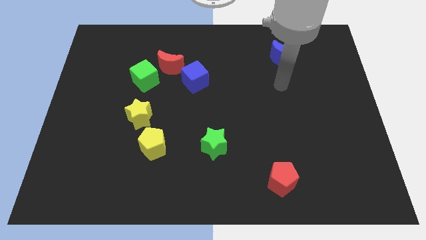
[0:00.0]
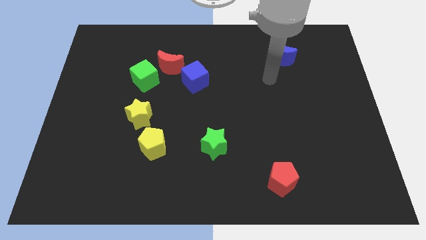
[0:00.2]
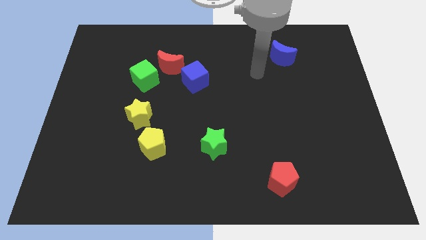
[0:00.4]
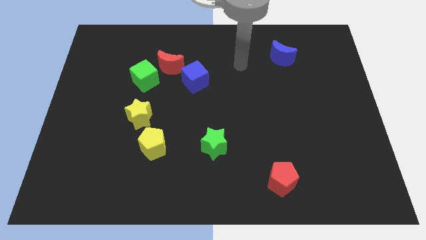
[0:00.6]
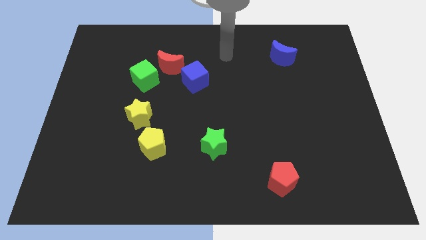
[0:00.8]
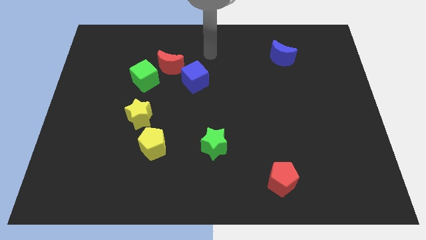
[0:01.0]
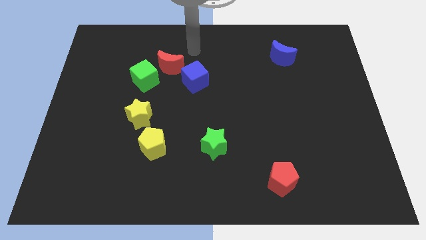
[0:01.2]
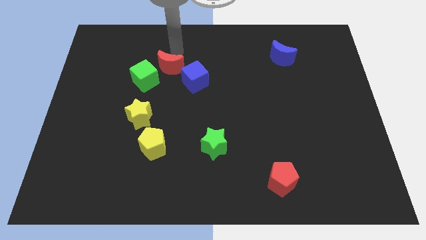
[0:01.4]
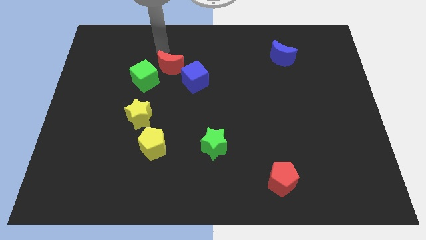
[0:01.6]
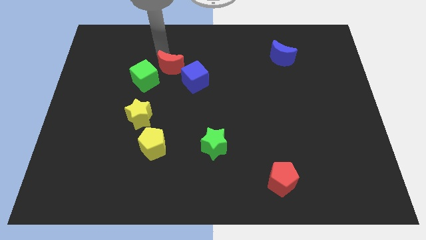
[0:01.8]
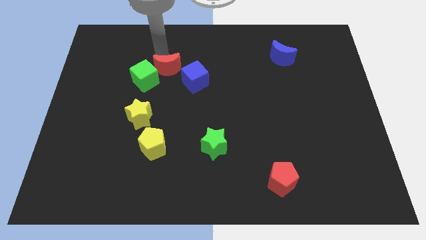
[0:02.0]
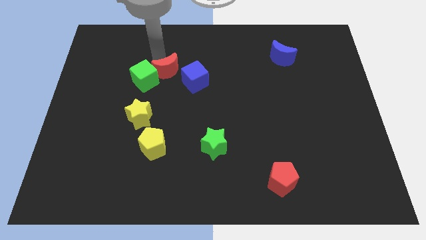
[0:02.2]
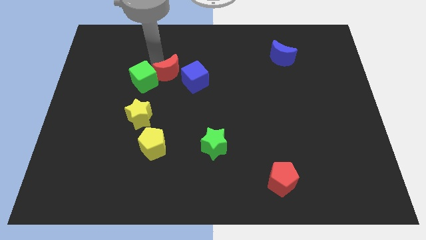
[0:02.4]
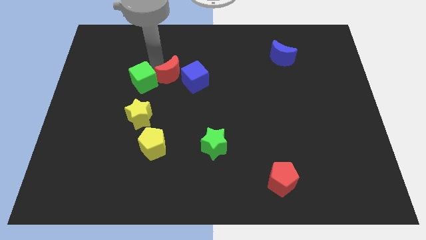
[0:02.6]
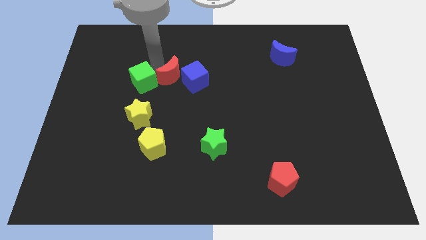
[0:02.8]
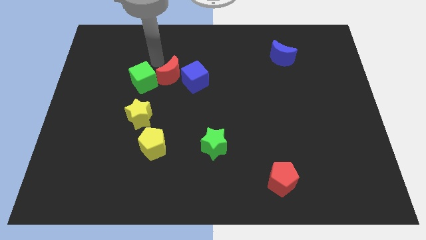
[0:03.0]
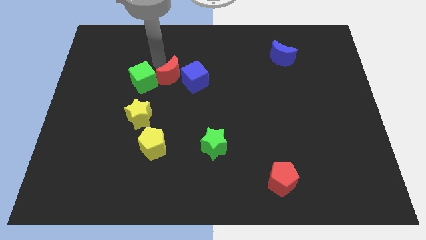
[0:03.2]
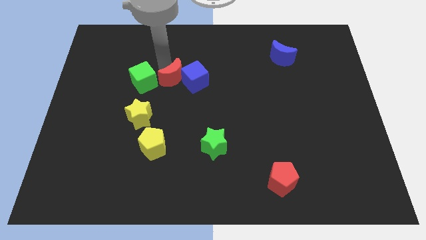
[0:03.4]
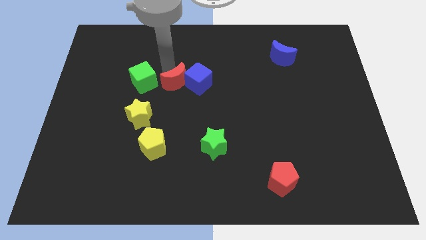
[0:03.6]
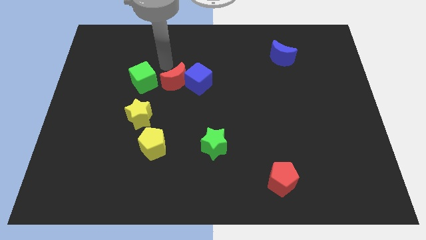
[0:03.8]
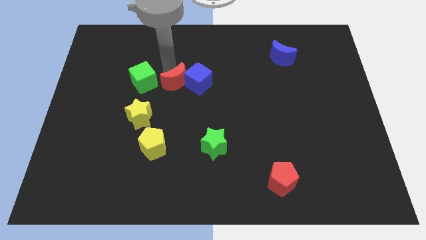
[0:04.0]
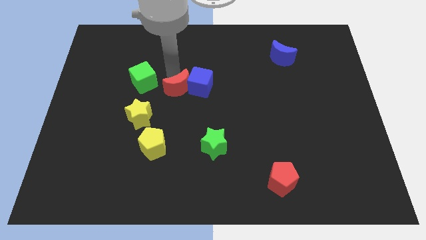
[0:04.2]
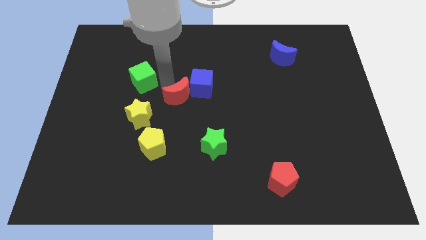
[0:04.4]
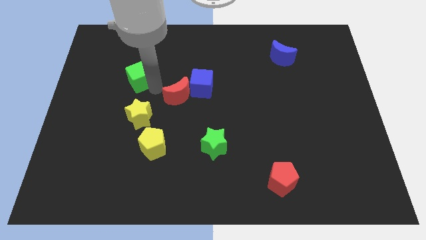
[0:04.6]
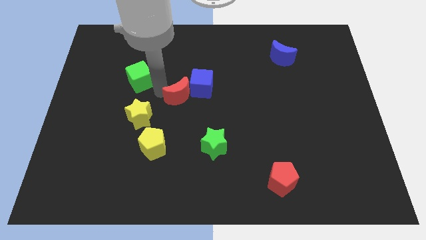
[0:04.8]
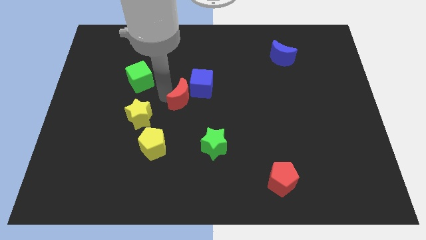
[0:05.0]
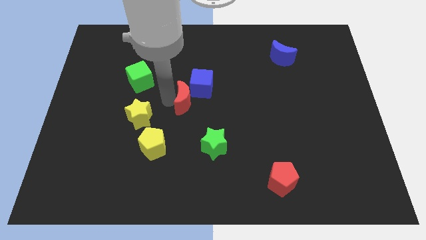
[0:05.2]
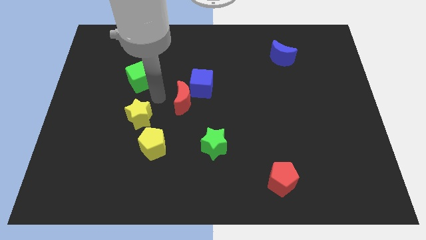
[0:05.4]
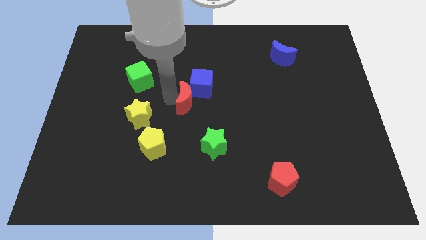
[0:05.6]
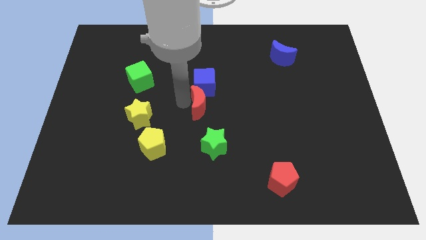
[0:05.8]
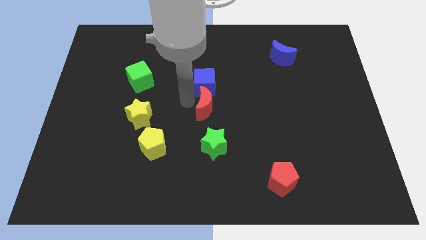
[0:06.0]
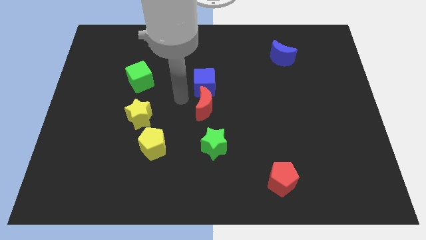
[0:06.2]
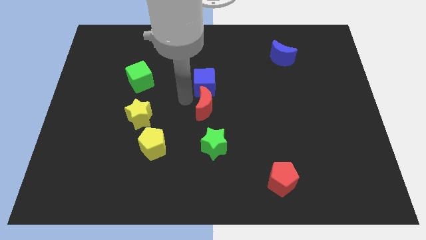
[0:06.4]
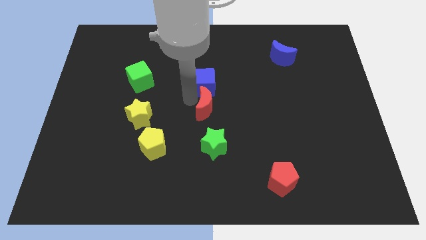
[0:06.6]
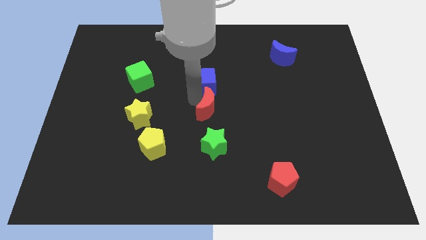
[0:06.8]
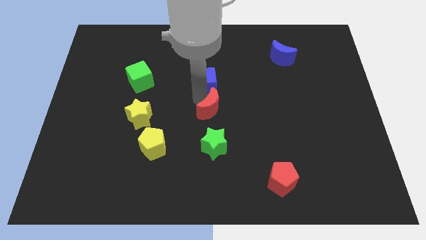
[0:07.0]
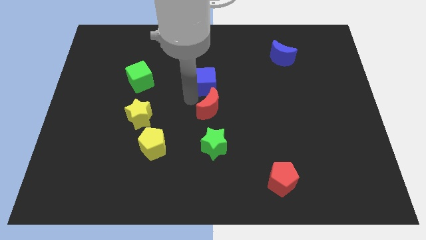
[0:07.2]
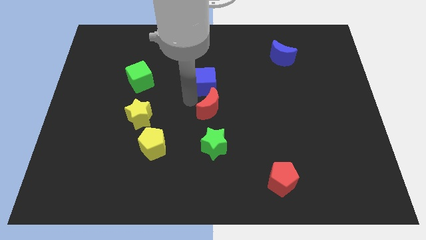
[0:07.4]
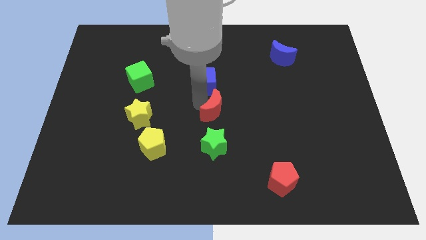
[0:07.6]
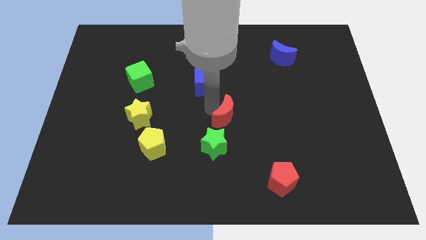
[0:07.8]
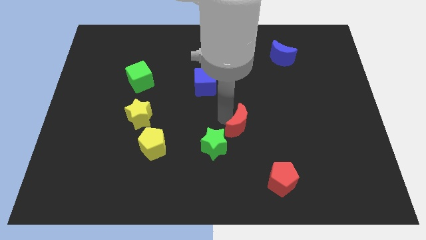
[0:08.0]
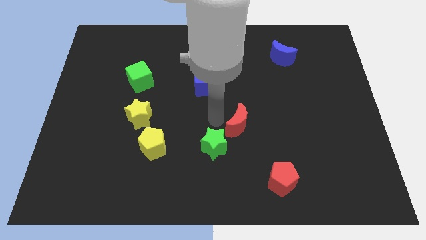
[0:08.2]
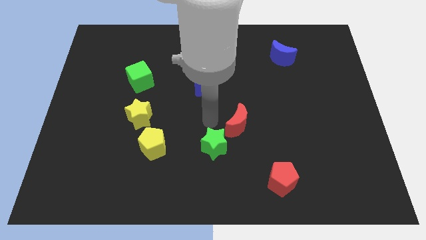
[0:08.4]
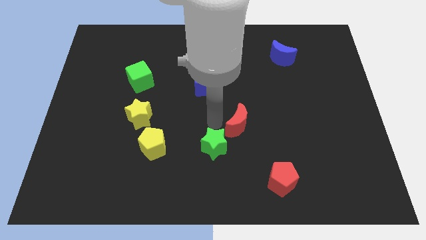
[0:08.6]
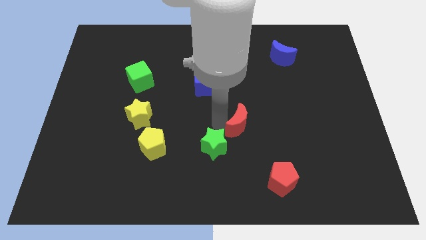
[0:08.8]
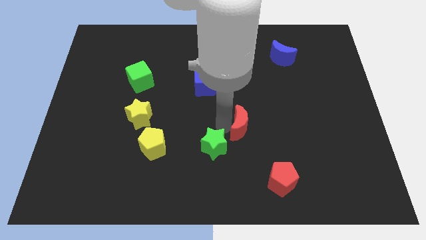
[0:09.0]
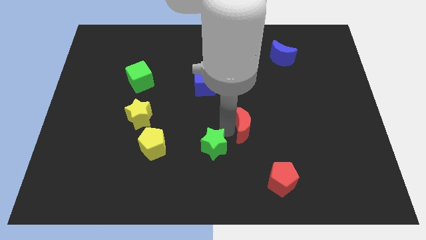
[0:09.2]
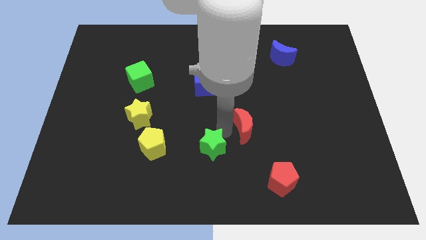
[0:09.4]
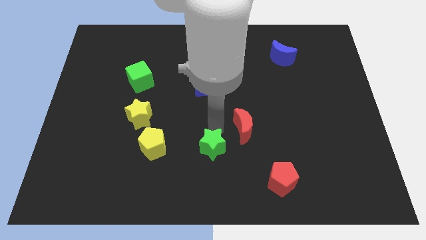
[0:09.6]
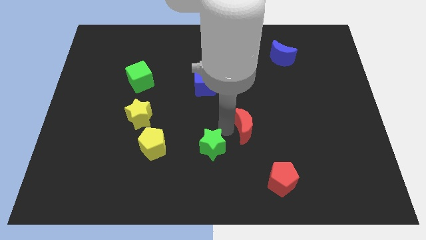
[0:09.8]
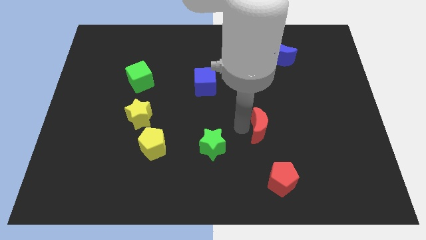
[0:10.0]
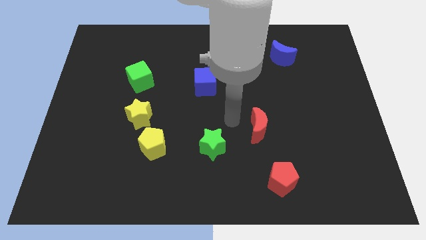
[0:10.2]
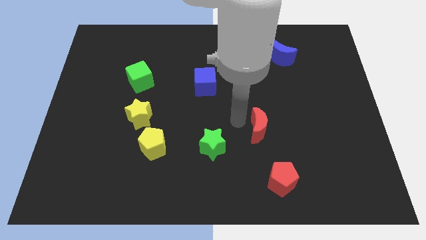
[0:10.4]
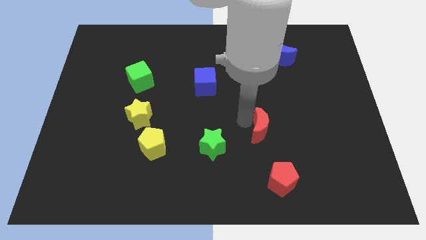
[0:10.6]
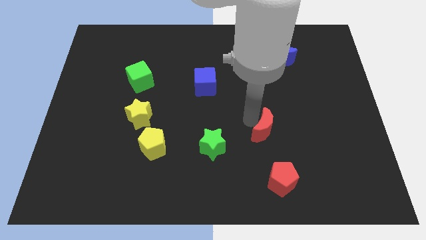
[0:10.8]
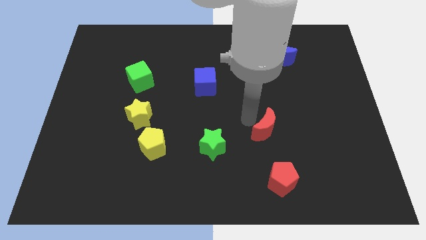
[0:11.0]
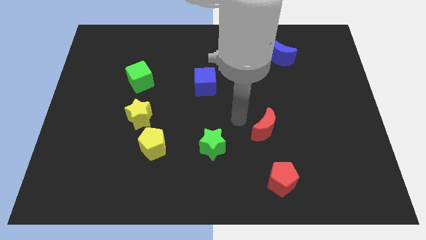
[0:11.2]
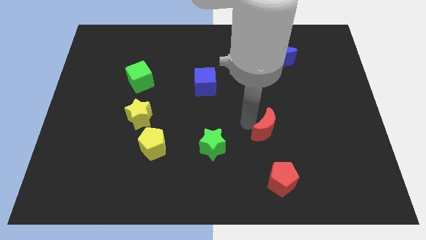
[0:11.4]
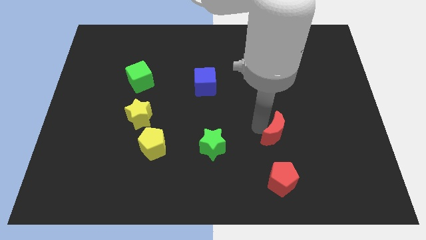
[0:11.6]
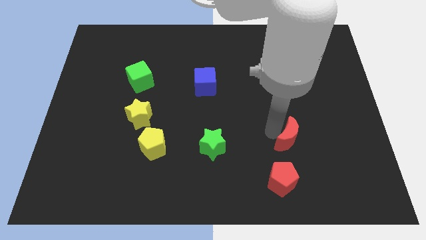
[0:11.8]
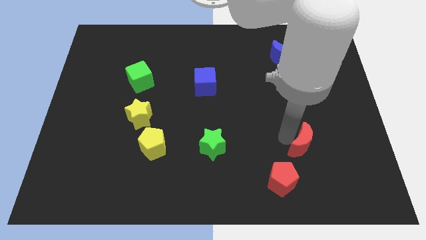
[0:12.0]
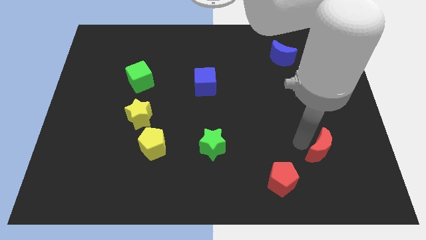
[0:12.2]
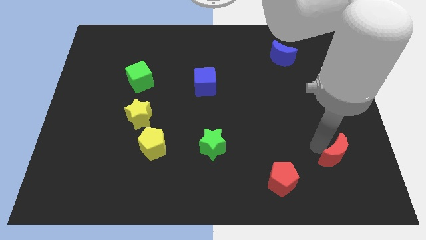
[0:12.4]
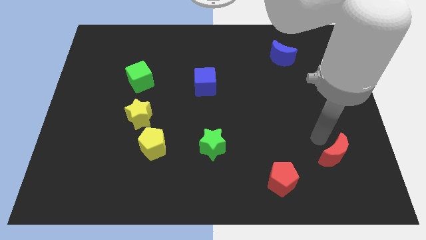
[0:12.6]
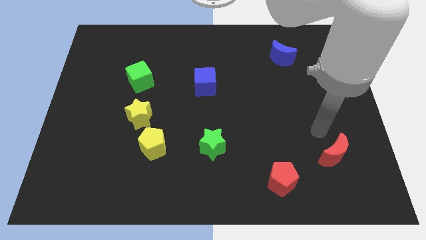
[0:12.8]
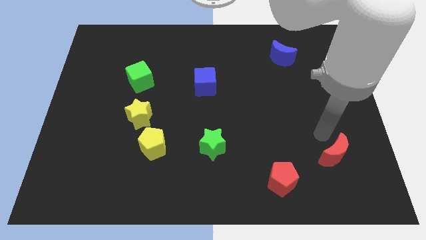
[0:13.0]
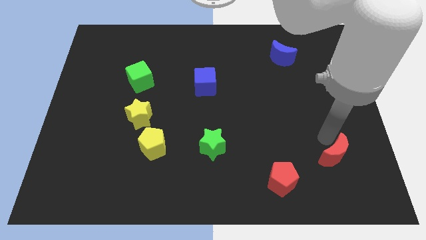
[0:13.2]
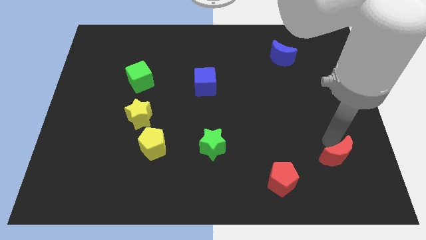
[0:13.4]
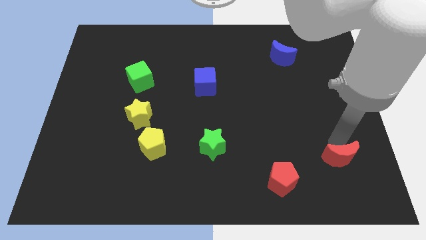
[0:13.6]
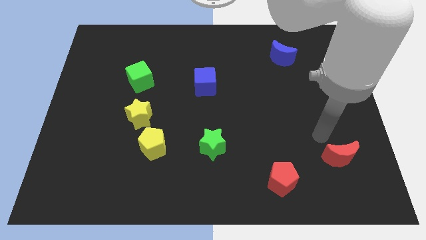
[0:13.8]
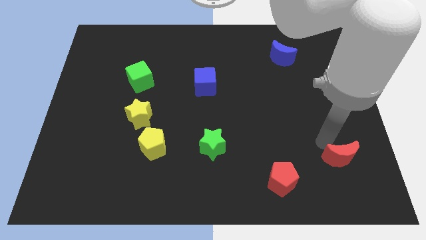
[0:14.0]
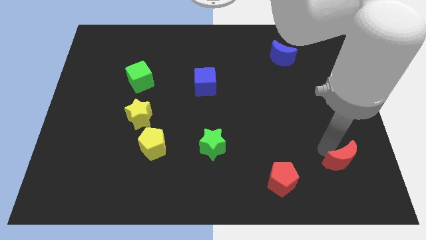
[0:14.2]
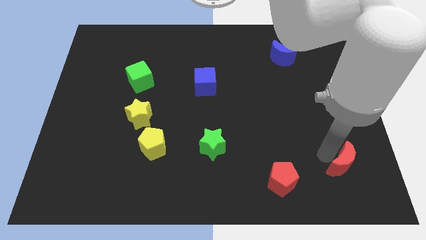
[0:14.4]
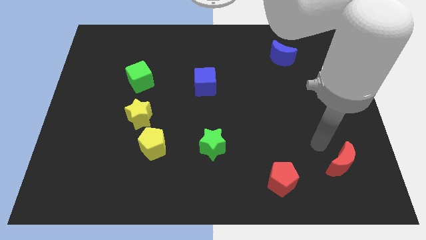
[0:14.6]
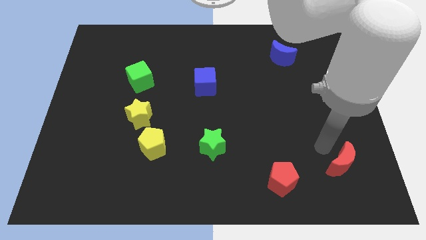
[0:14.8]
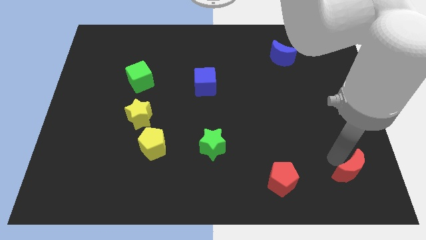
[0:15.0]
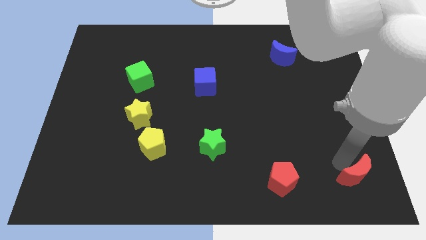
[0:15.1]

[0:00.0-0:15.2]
push the red moon to the bottom right
